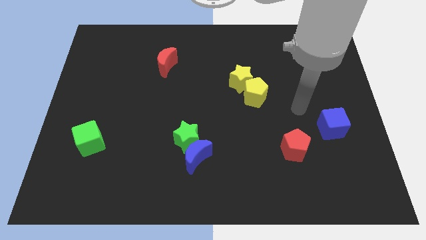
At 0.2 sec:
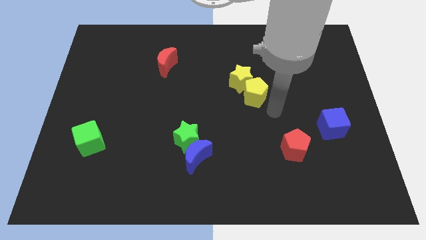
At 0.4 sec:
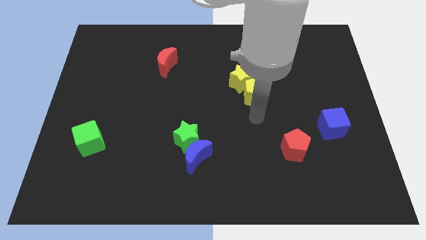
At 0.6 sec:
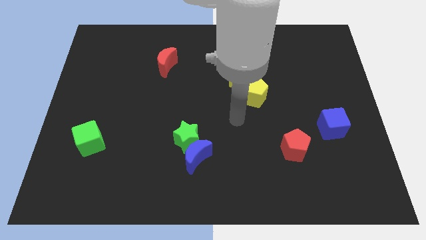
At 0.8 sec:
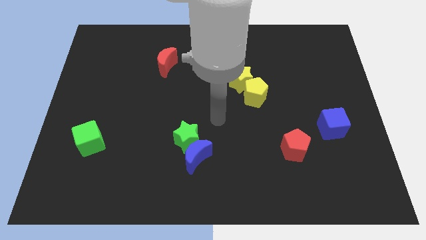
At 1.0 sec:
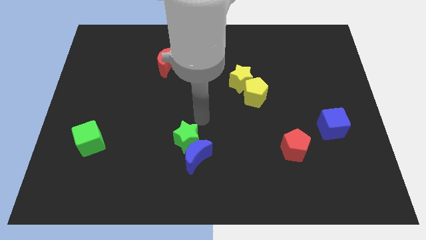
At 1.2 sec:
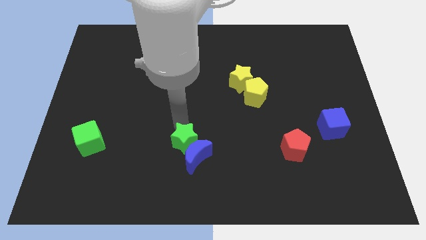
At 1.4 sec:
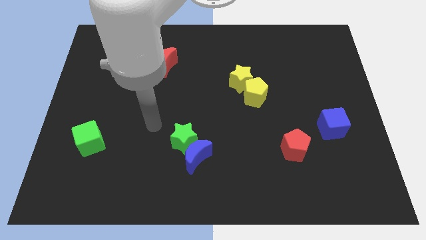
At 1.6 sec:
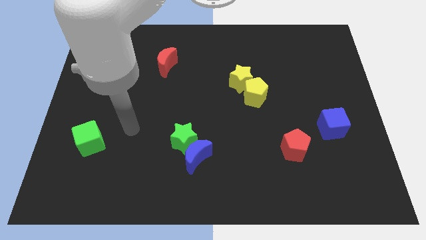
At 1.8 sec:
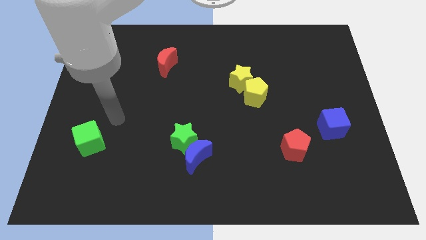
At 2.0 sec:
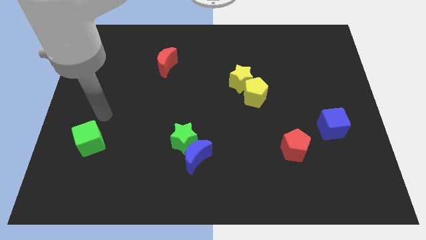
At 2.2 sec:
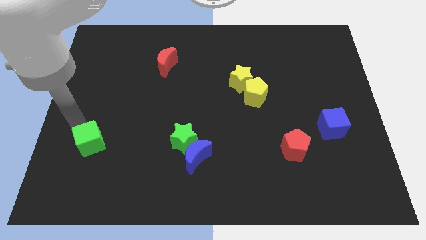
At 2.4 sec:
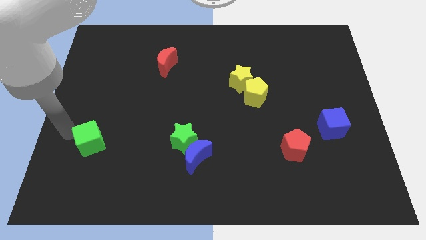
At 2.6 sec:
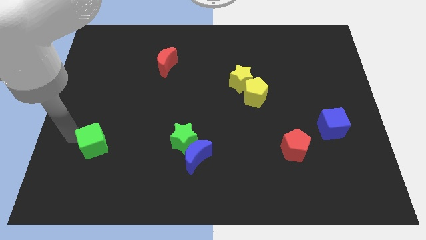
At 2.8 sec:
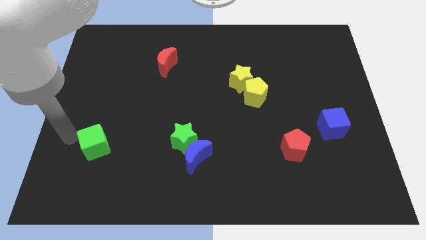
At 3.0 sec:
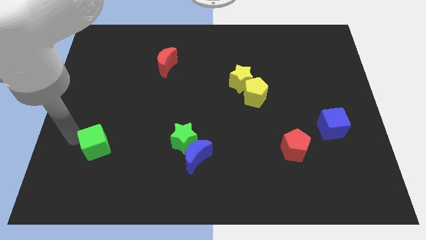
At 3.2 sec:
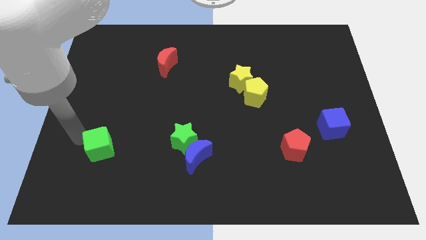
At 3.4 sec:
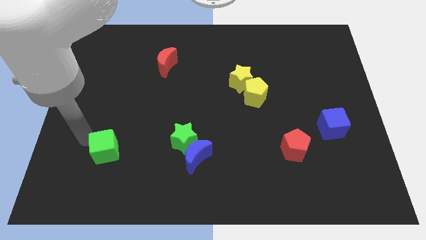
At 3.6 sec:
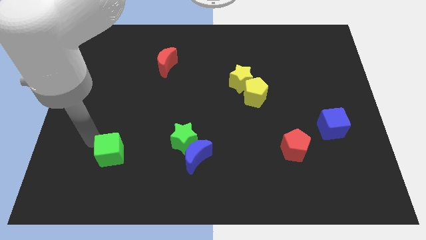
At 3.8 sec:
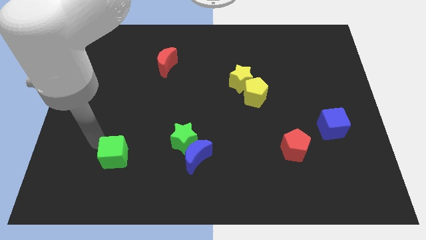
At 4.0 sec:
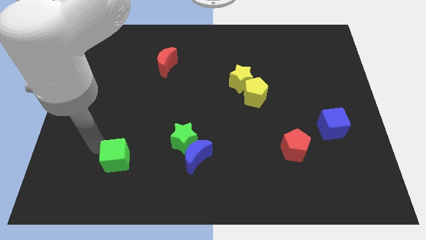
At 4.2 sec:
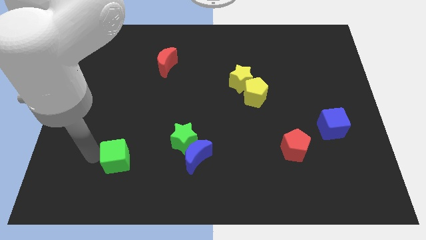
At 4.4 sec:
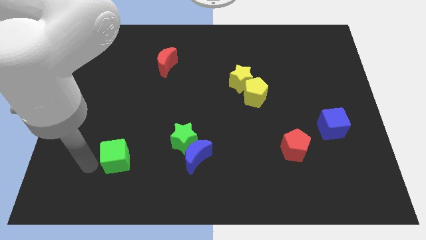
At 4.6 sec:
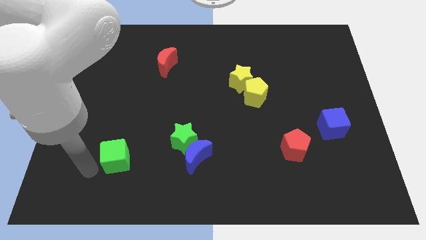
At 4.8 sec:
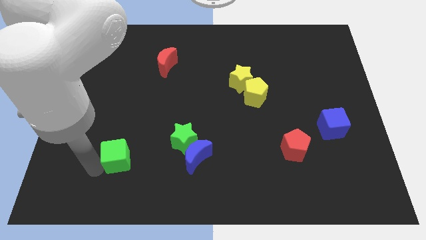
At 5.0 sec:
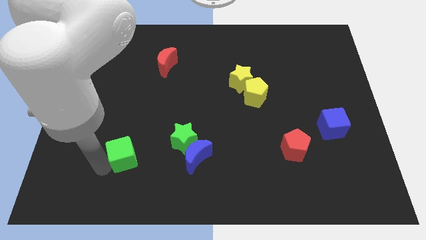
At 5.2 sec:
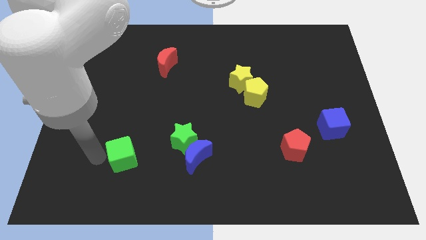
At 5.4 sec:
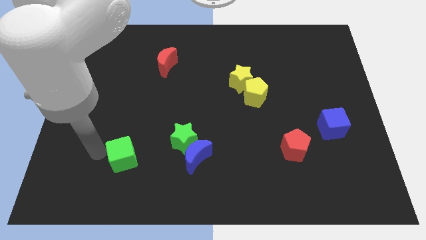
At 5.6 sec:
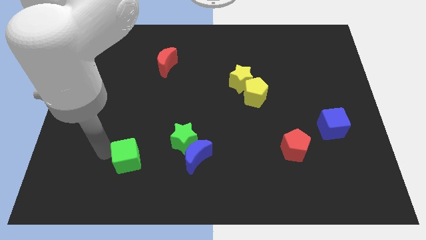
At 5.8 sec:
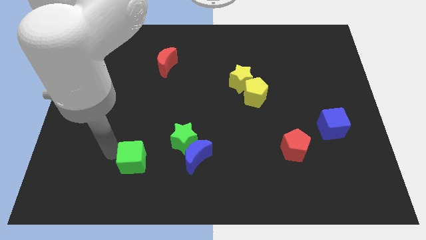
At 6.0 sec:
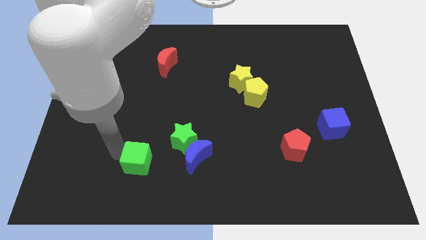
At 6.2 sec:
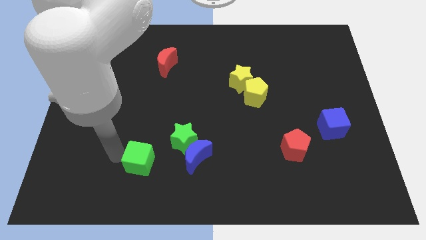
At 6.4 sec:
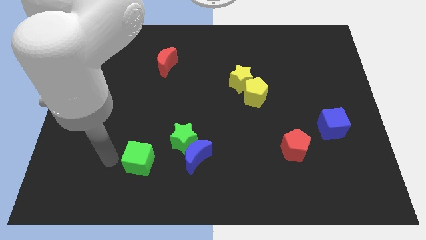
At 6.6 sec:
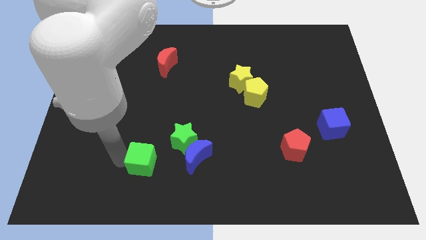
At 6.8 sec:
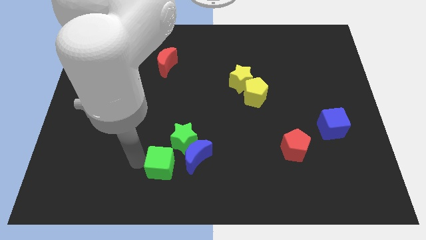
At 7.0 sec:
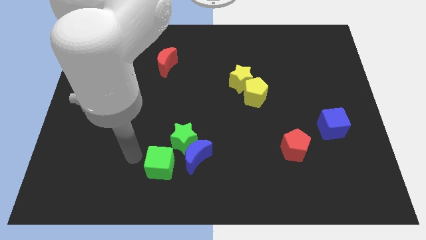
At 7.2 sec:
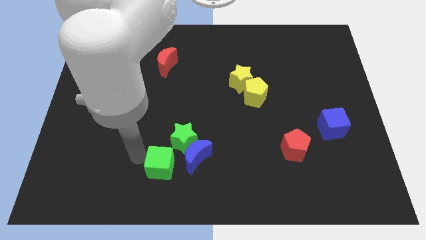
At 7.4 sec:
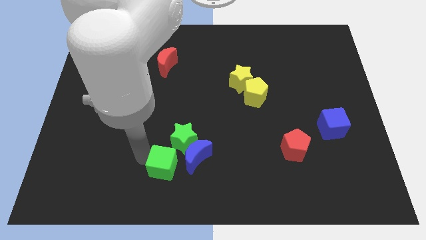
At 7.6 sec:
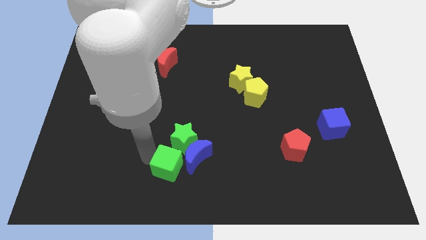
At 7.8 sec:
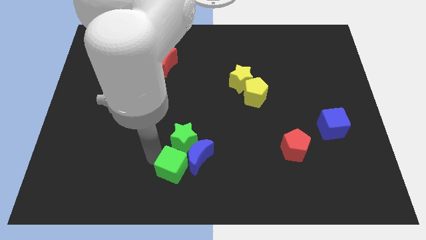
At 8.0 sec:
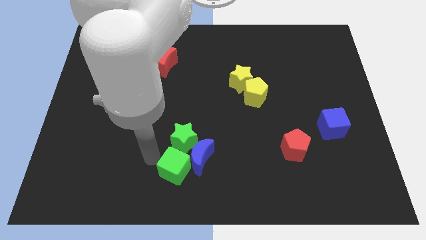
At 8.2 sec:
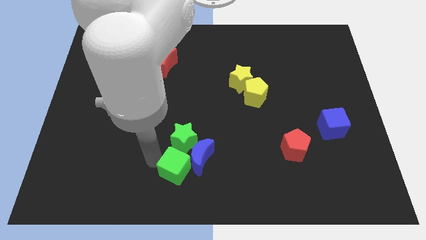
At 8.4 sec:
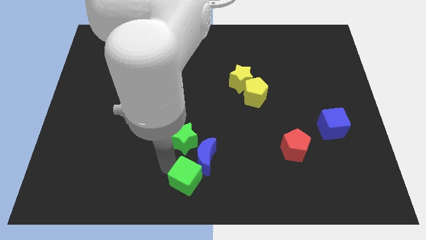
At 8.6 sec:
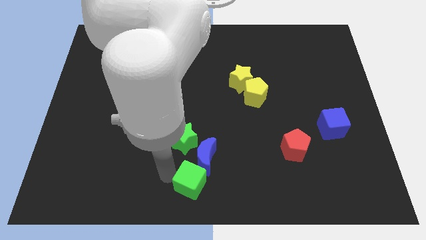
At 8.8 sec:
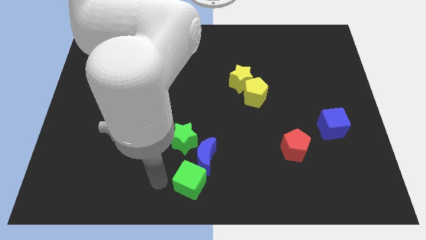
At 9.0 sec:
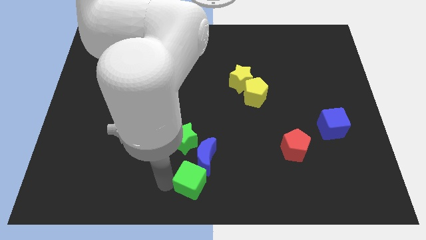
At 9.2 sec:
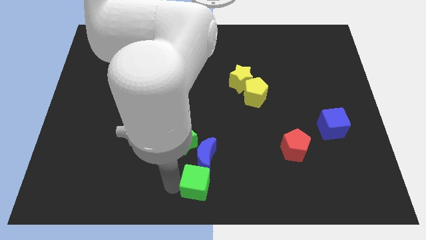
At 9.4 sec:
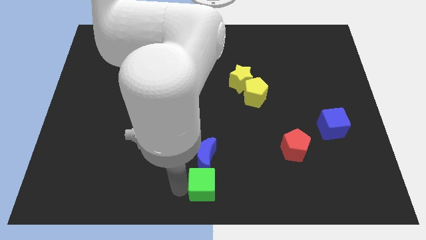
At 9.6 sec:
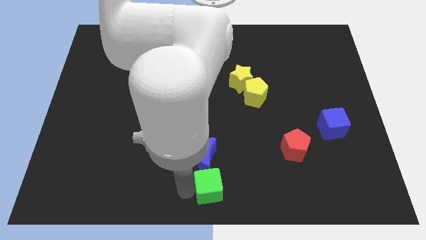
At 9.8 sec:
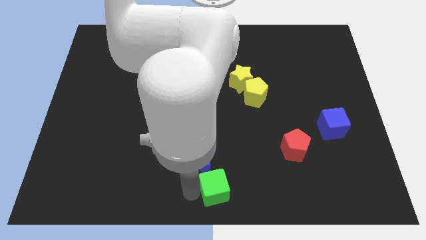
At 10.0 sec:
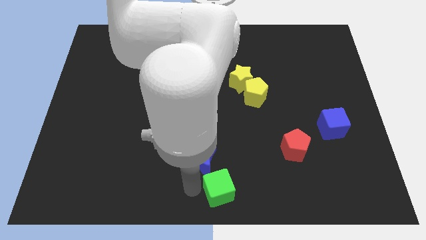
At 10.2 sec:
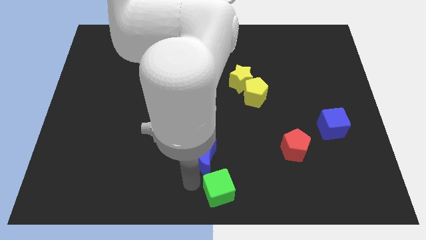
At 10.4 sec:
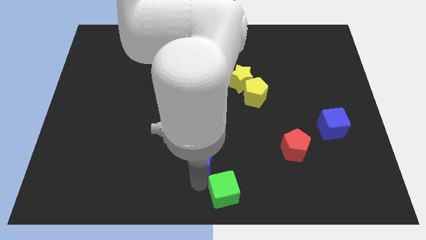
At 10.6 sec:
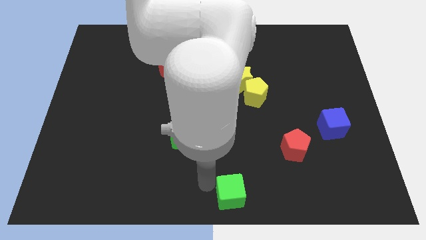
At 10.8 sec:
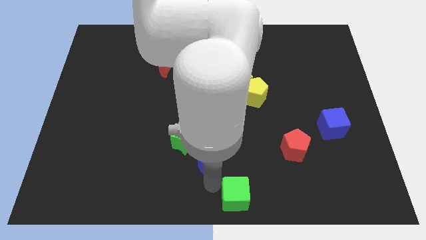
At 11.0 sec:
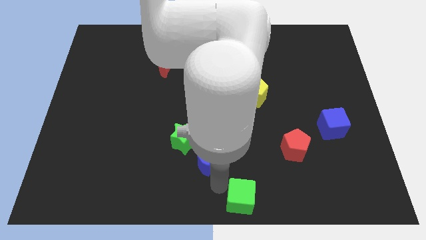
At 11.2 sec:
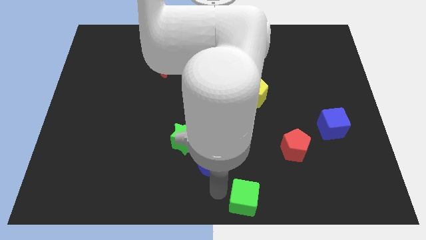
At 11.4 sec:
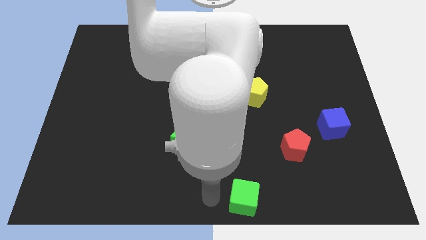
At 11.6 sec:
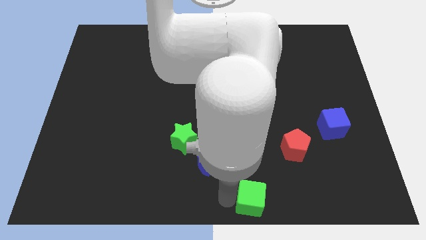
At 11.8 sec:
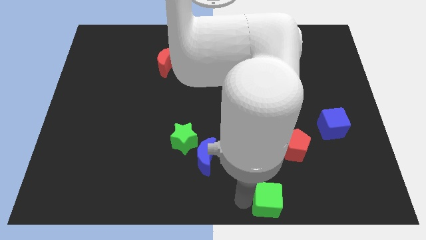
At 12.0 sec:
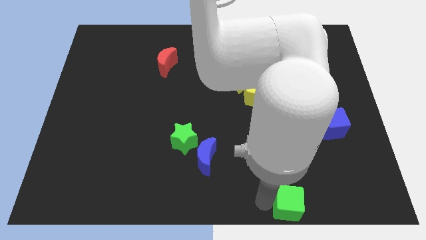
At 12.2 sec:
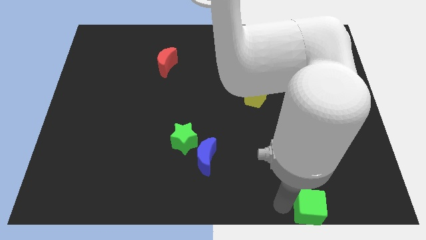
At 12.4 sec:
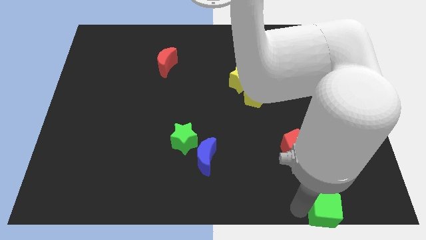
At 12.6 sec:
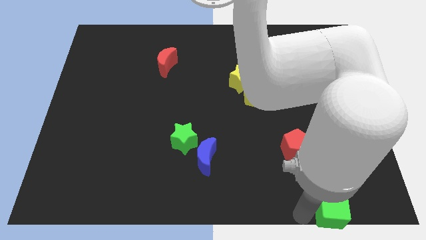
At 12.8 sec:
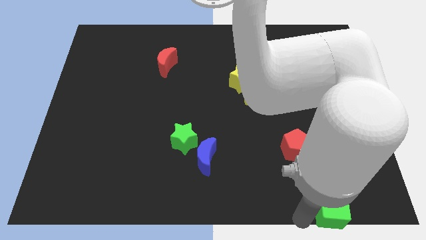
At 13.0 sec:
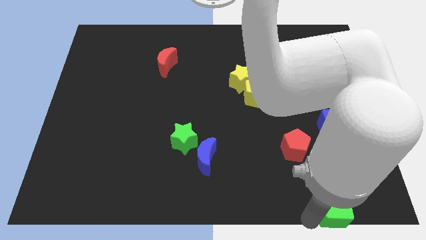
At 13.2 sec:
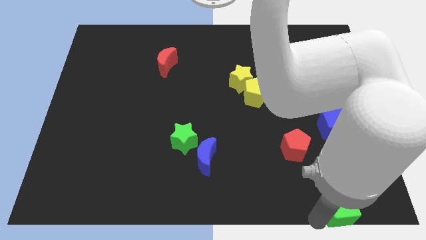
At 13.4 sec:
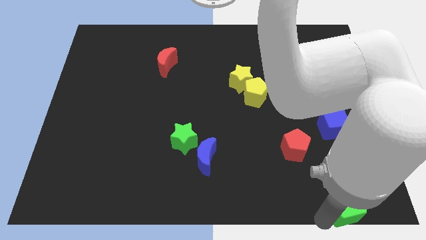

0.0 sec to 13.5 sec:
push the green cube to the bottom right corner
